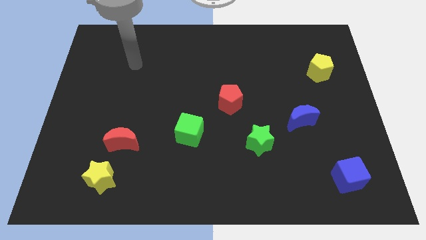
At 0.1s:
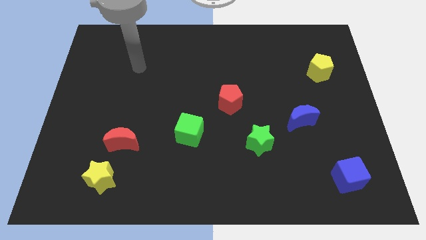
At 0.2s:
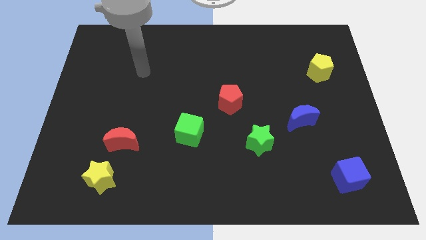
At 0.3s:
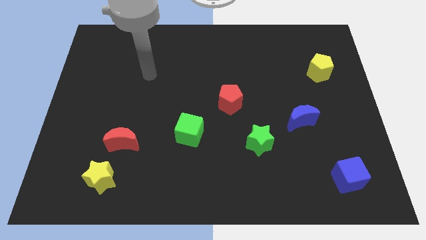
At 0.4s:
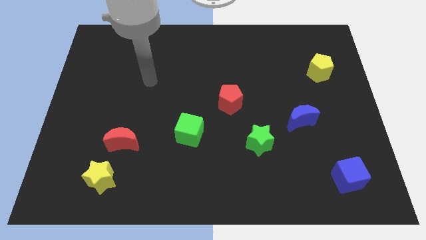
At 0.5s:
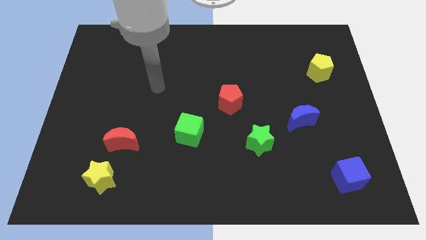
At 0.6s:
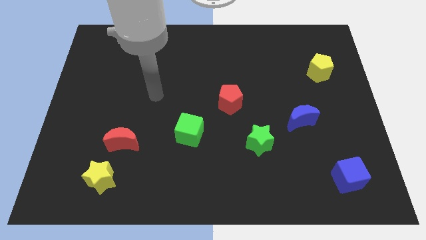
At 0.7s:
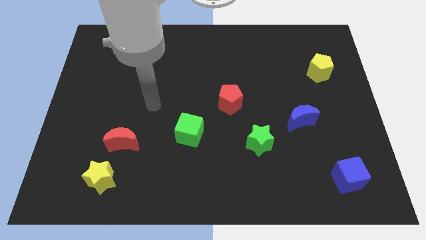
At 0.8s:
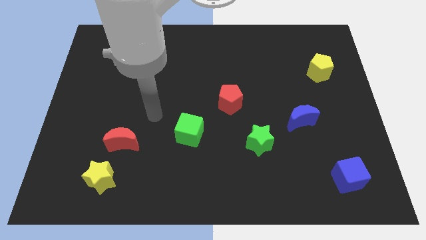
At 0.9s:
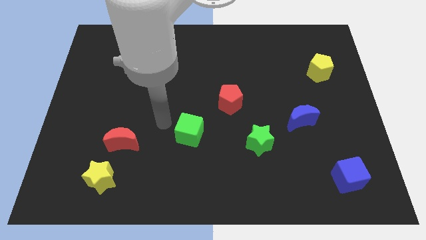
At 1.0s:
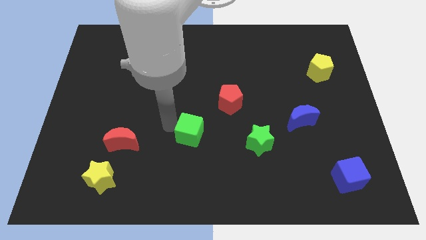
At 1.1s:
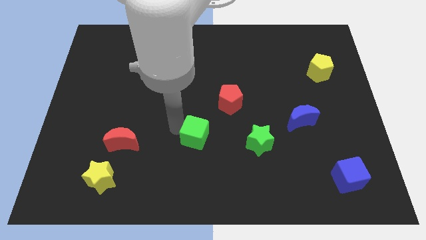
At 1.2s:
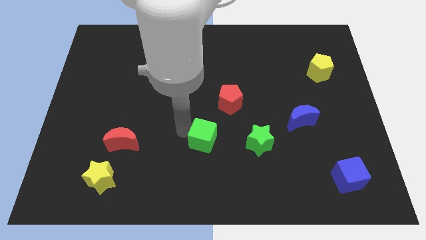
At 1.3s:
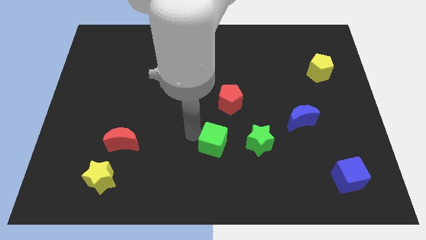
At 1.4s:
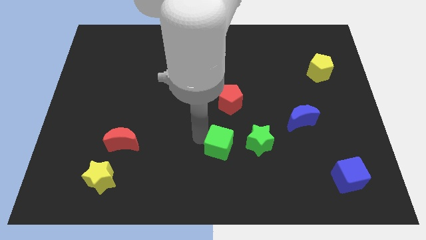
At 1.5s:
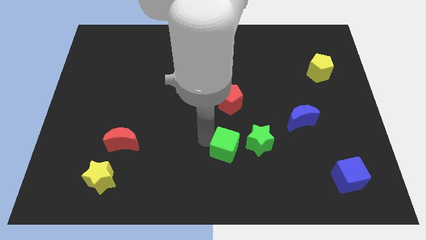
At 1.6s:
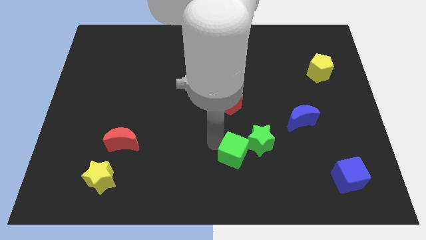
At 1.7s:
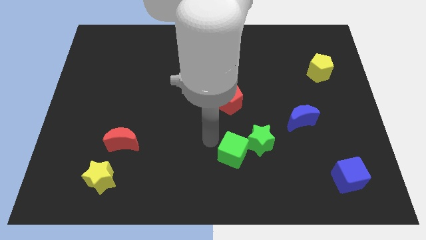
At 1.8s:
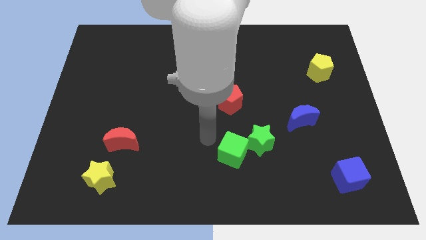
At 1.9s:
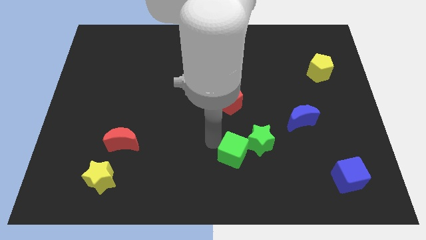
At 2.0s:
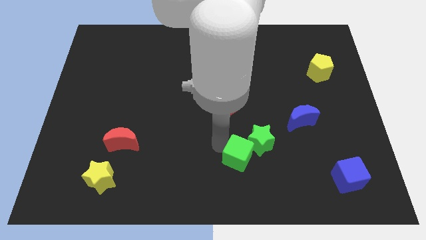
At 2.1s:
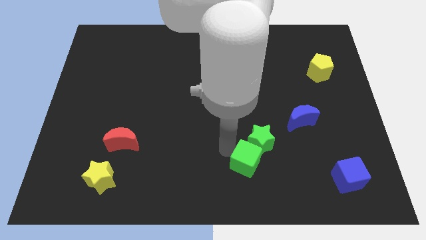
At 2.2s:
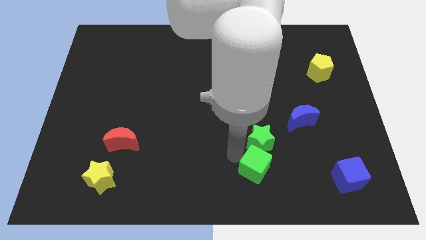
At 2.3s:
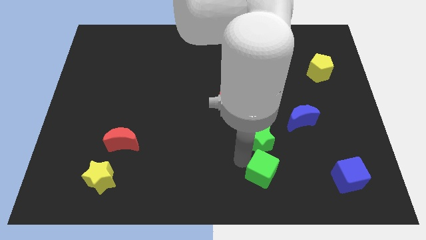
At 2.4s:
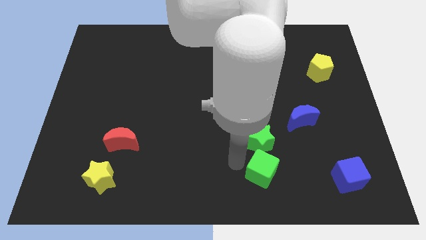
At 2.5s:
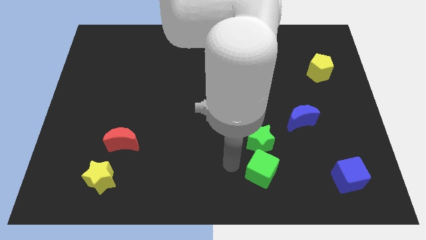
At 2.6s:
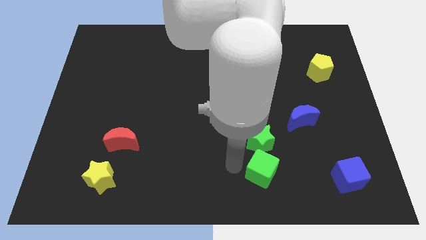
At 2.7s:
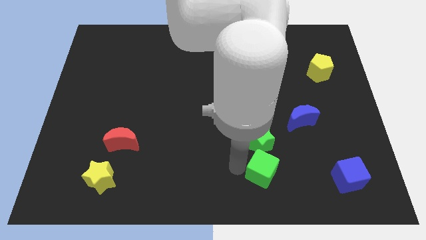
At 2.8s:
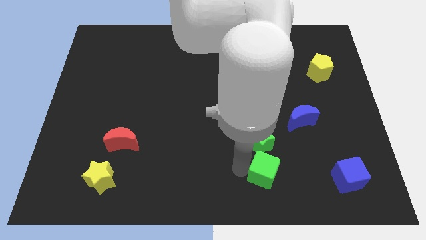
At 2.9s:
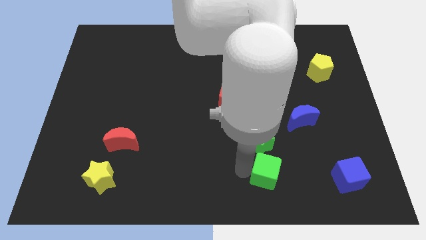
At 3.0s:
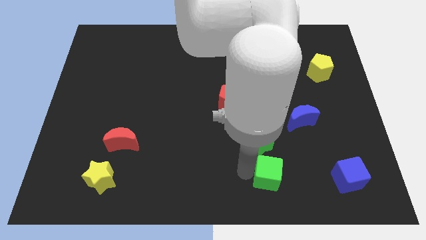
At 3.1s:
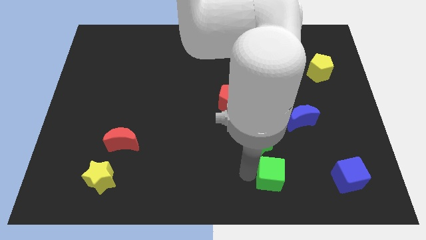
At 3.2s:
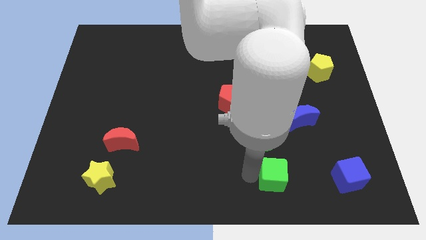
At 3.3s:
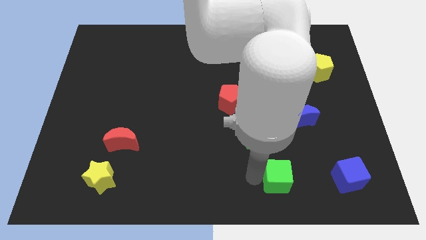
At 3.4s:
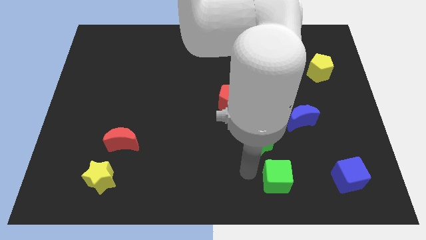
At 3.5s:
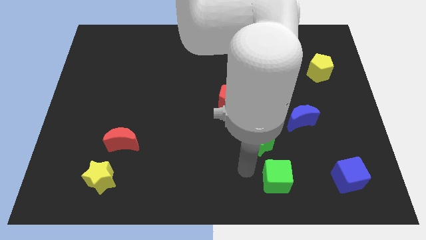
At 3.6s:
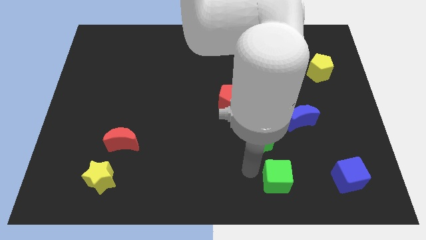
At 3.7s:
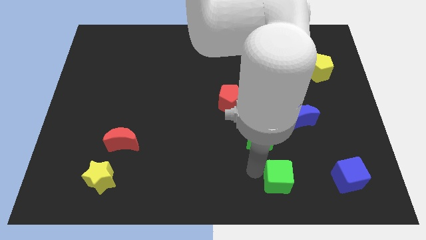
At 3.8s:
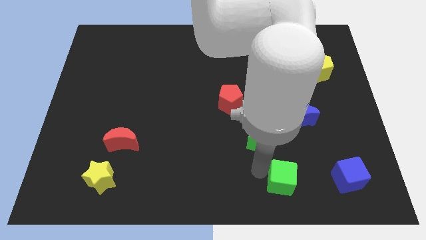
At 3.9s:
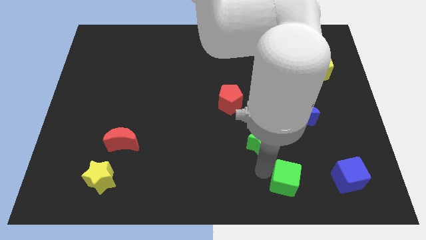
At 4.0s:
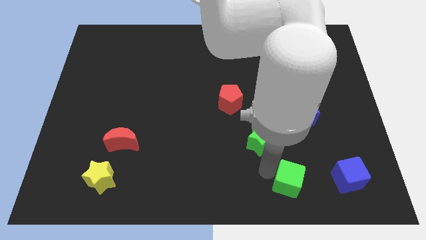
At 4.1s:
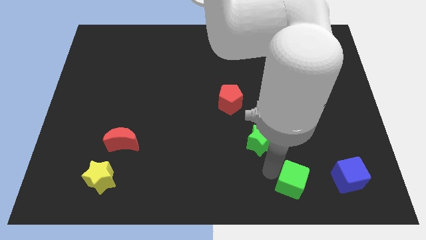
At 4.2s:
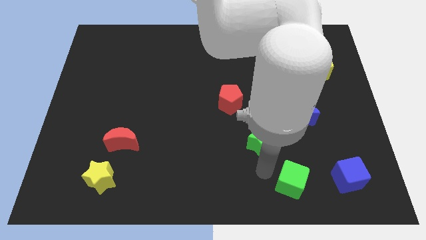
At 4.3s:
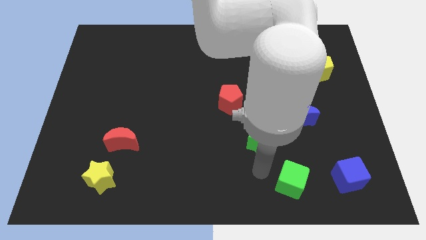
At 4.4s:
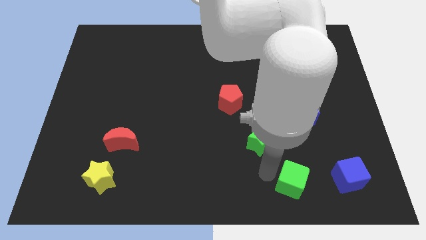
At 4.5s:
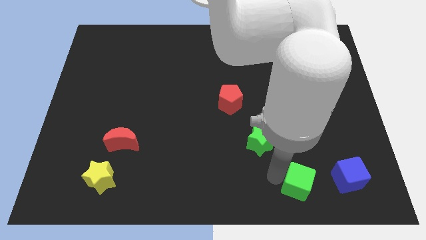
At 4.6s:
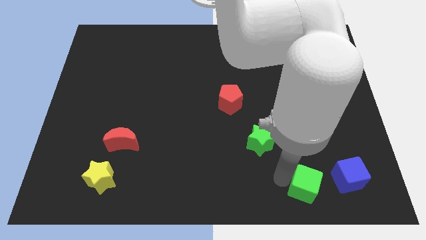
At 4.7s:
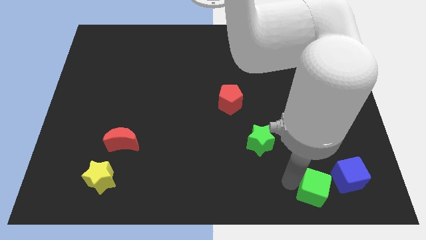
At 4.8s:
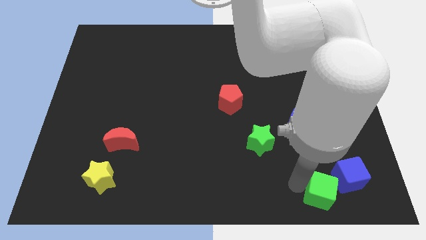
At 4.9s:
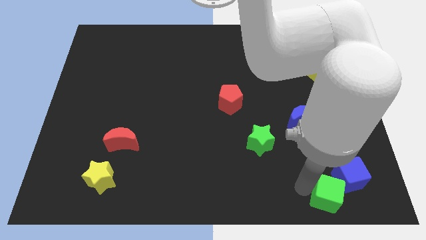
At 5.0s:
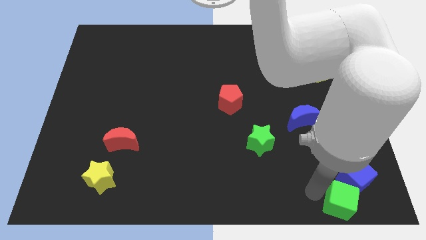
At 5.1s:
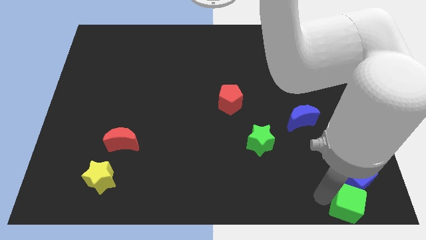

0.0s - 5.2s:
push the green cube to the lower right corner

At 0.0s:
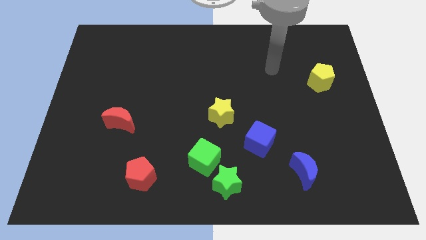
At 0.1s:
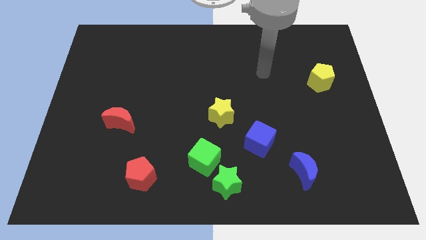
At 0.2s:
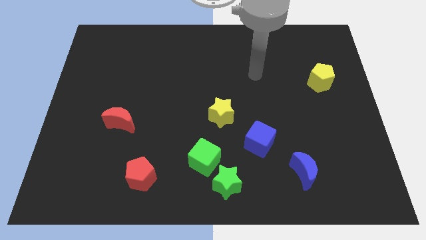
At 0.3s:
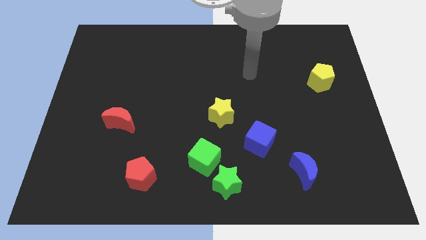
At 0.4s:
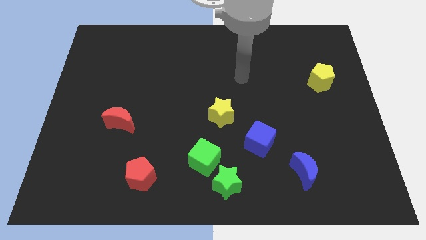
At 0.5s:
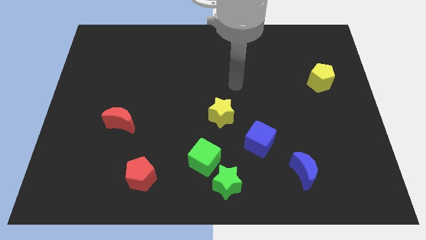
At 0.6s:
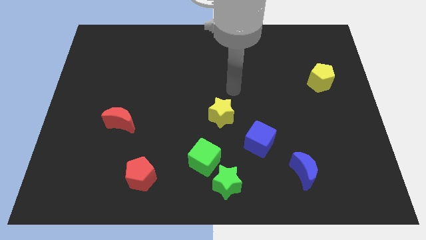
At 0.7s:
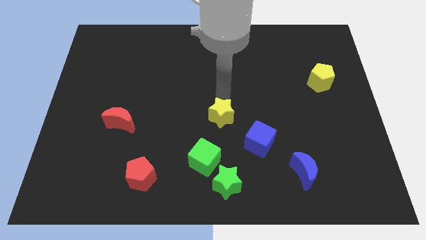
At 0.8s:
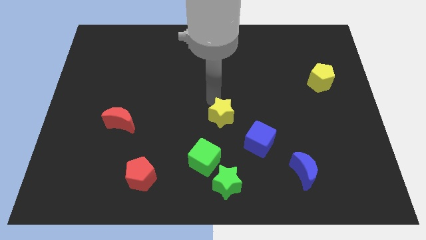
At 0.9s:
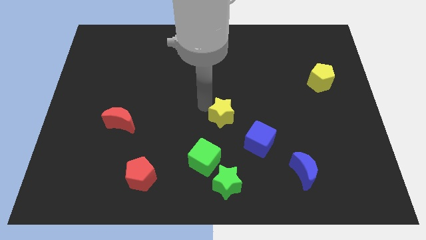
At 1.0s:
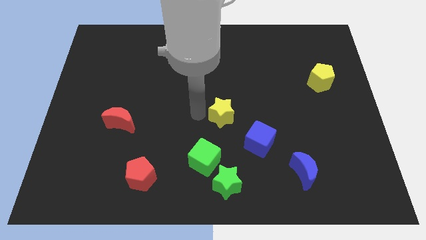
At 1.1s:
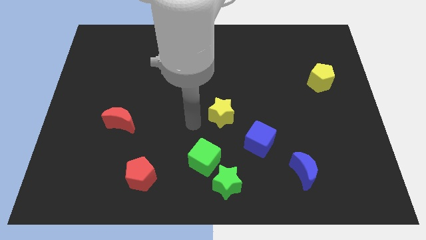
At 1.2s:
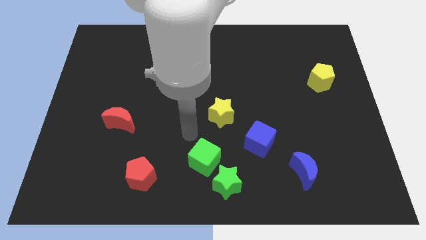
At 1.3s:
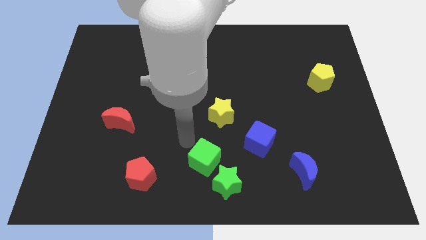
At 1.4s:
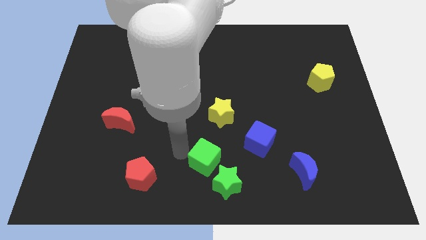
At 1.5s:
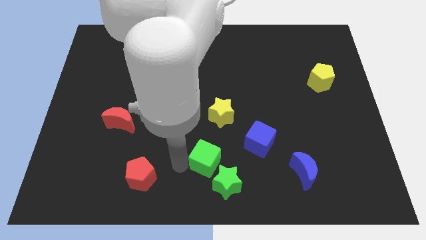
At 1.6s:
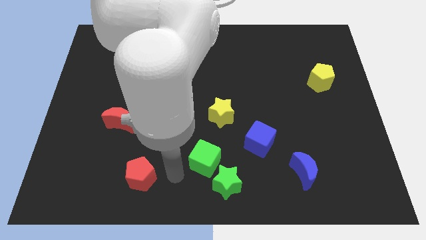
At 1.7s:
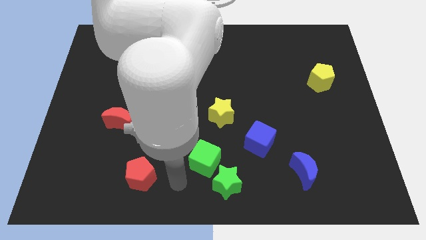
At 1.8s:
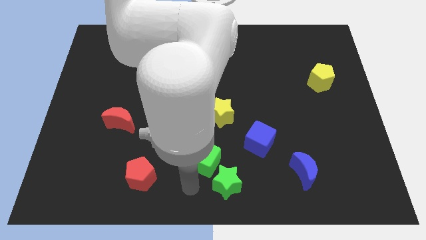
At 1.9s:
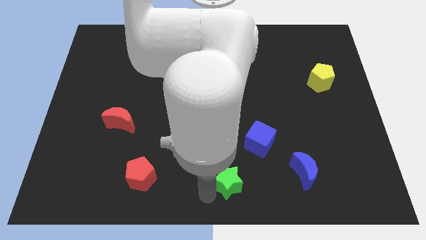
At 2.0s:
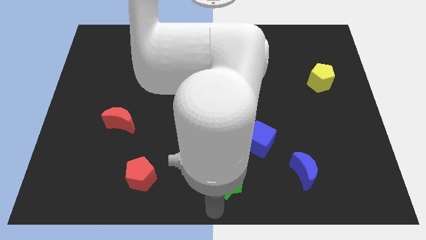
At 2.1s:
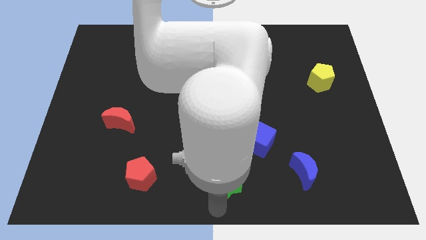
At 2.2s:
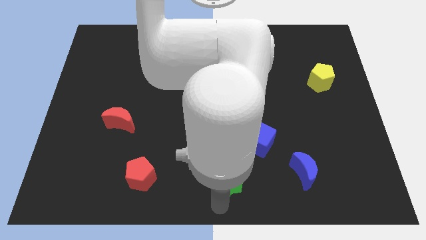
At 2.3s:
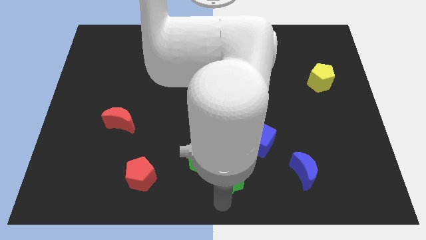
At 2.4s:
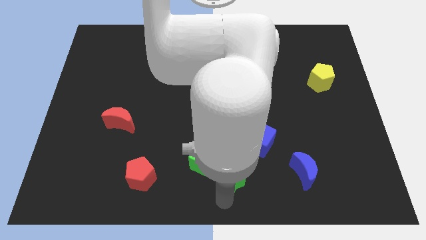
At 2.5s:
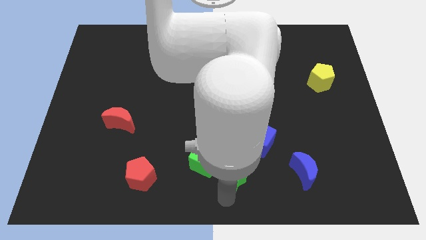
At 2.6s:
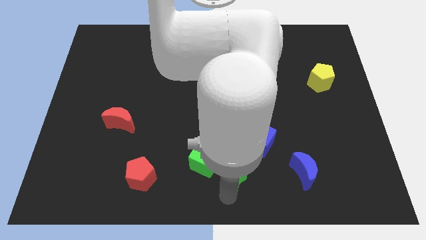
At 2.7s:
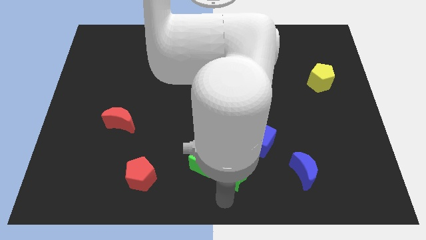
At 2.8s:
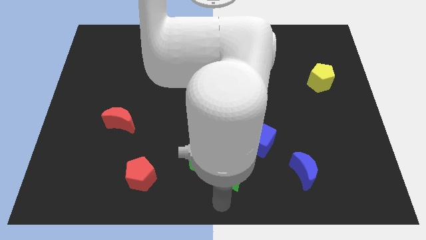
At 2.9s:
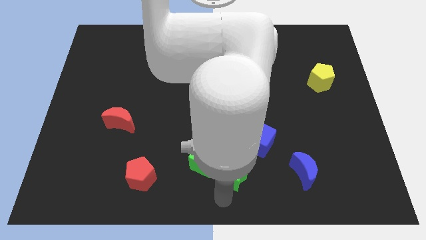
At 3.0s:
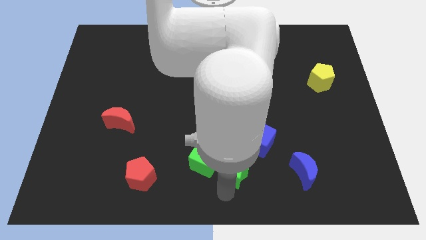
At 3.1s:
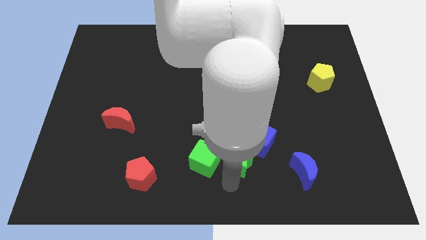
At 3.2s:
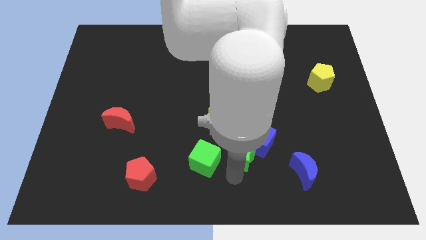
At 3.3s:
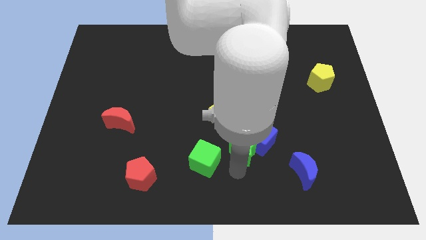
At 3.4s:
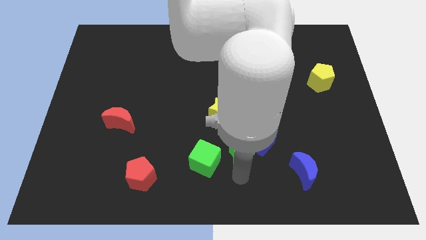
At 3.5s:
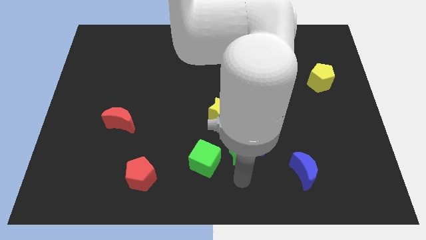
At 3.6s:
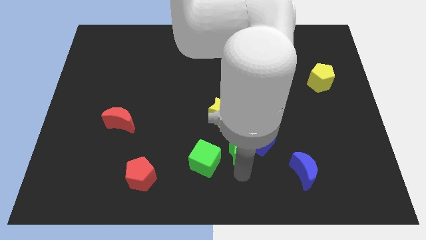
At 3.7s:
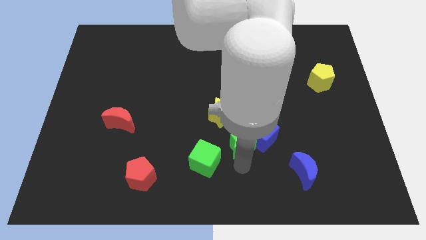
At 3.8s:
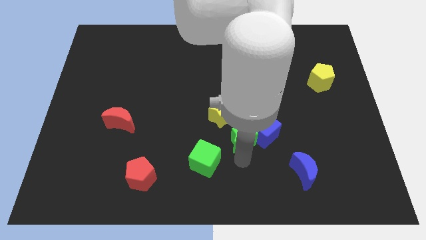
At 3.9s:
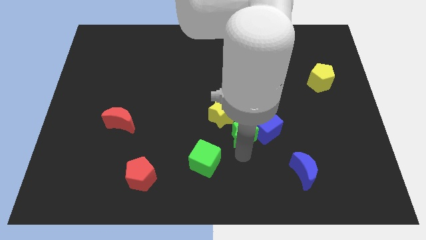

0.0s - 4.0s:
push the green star to the middle
